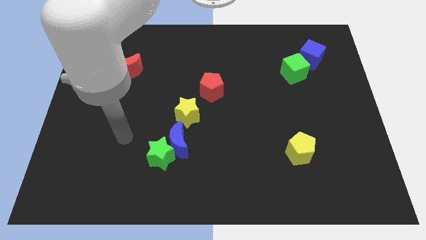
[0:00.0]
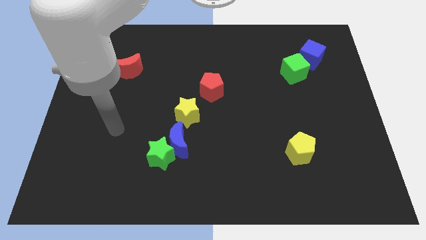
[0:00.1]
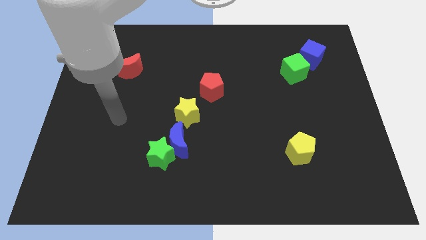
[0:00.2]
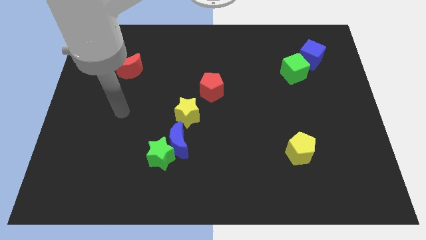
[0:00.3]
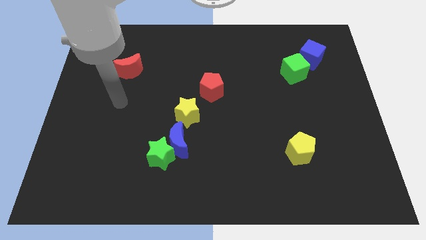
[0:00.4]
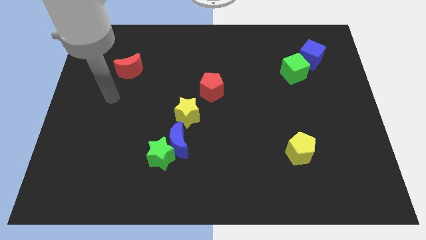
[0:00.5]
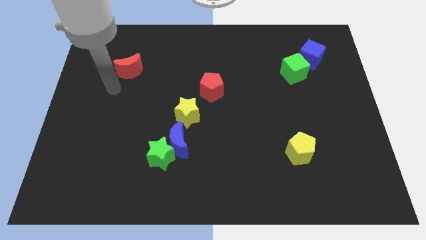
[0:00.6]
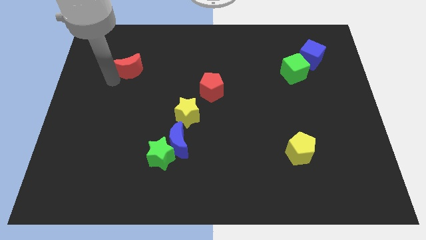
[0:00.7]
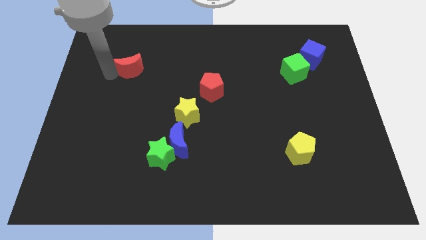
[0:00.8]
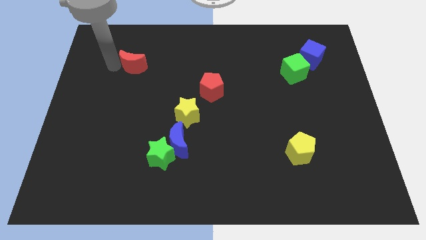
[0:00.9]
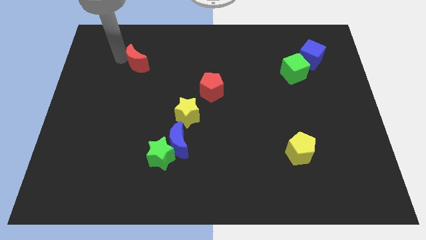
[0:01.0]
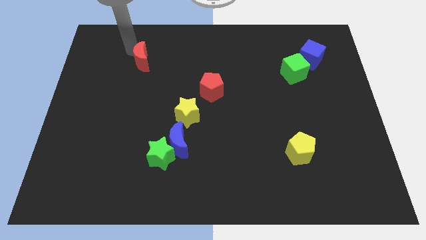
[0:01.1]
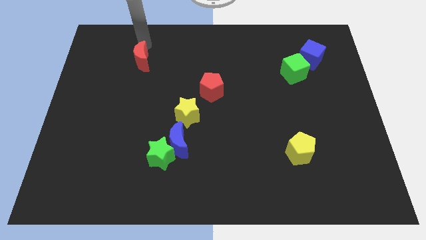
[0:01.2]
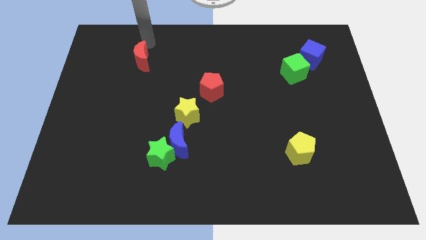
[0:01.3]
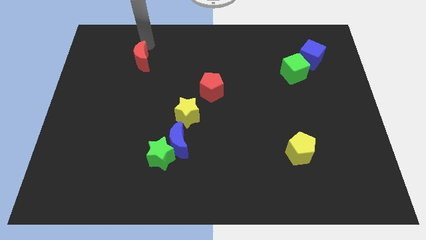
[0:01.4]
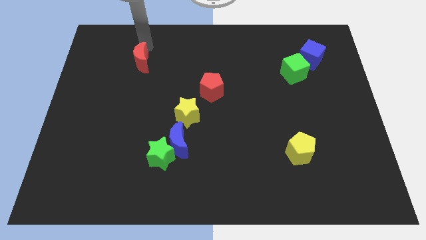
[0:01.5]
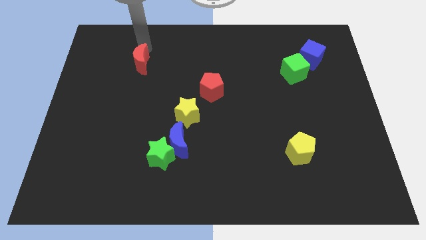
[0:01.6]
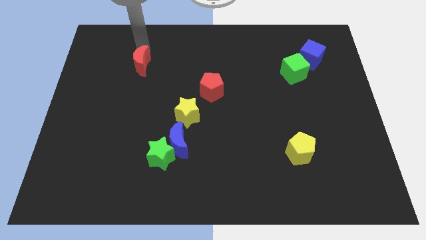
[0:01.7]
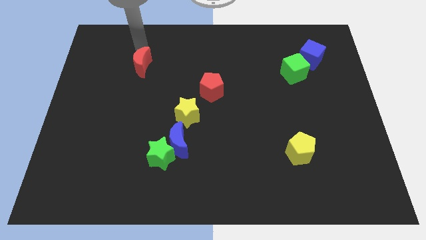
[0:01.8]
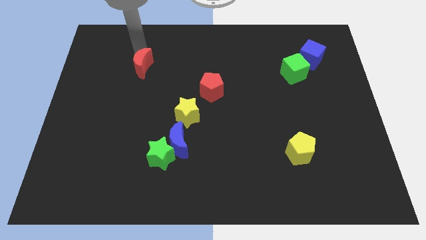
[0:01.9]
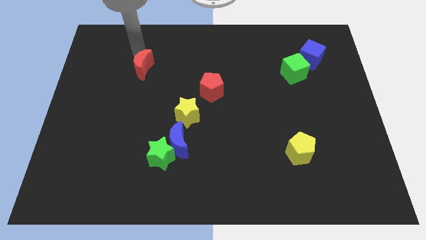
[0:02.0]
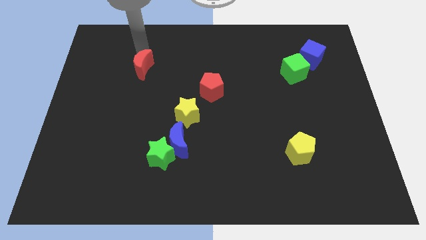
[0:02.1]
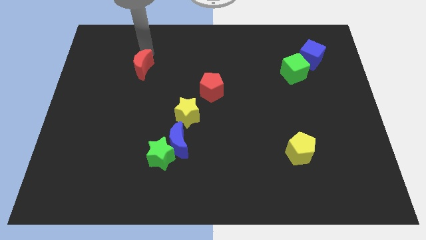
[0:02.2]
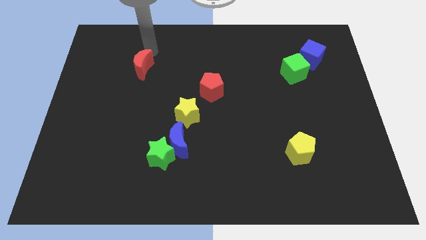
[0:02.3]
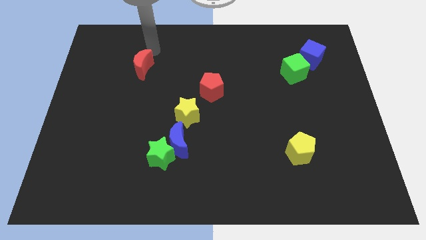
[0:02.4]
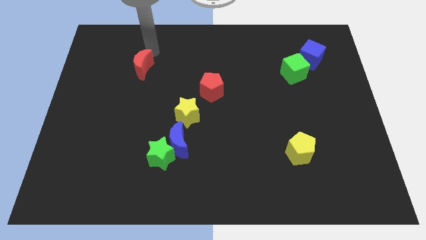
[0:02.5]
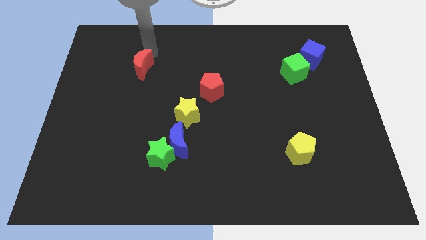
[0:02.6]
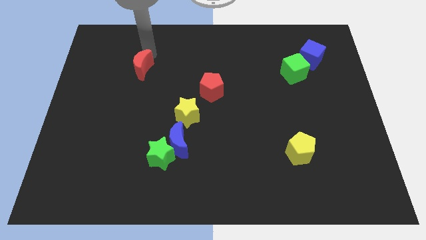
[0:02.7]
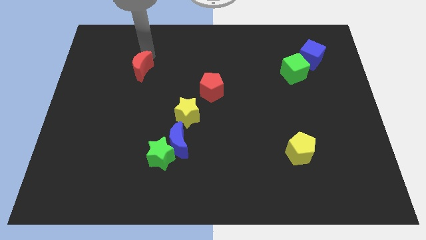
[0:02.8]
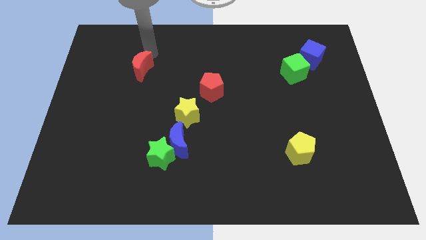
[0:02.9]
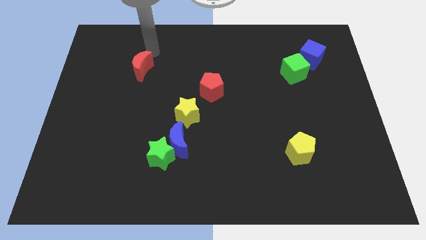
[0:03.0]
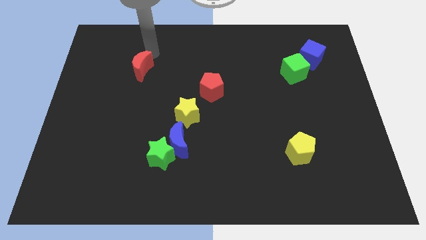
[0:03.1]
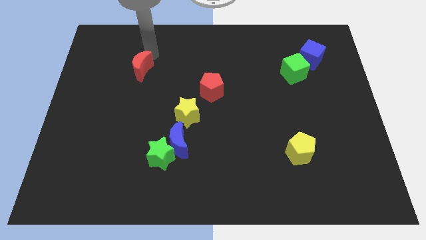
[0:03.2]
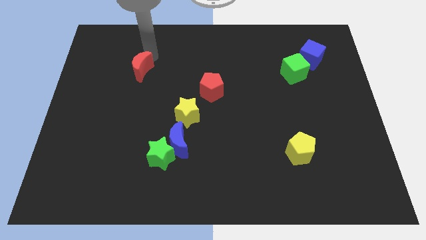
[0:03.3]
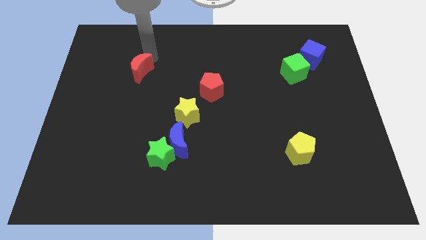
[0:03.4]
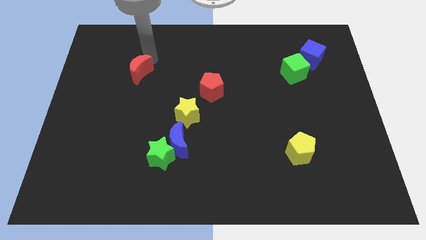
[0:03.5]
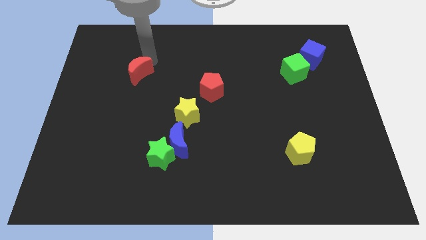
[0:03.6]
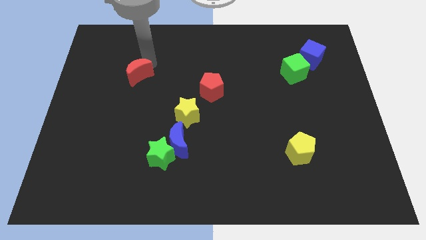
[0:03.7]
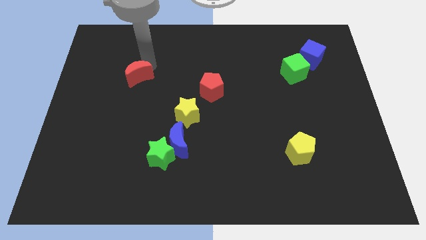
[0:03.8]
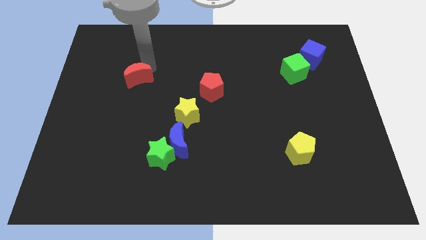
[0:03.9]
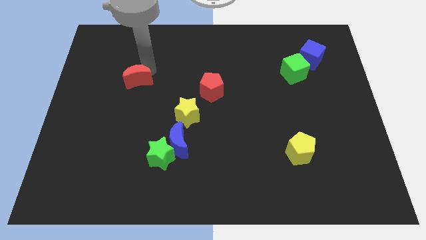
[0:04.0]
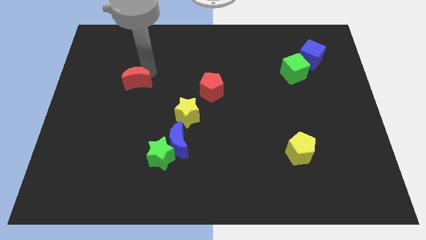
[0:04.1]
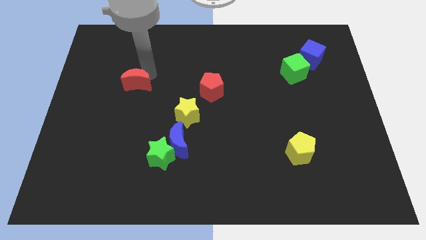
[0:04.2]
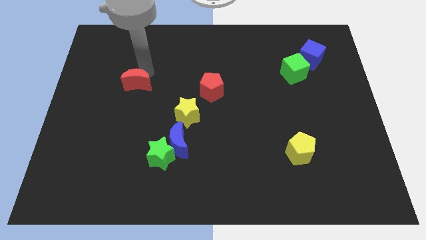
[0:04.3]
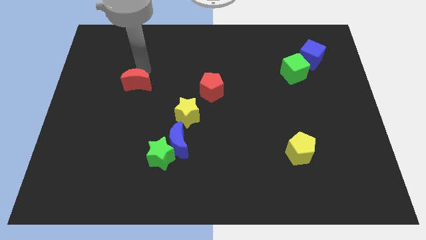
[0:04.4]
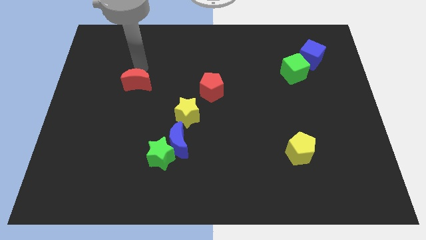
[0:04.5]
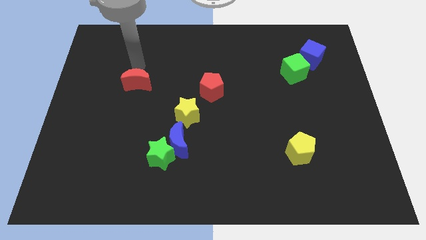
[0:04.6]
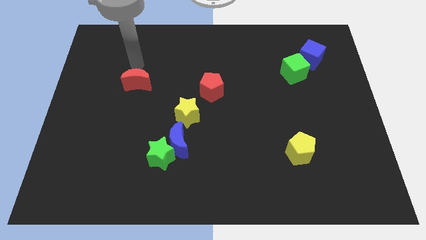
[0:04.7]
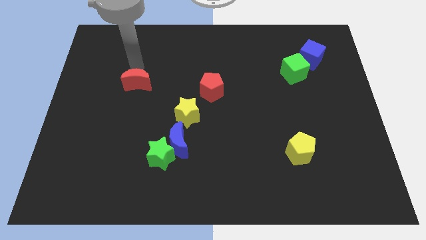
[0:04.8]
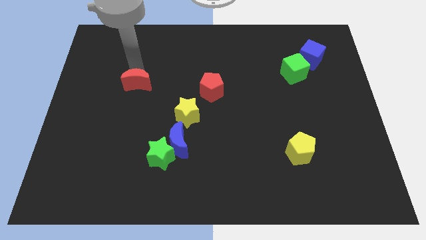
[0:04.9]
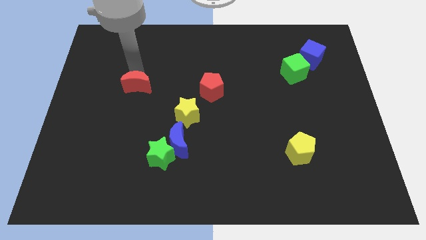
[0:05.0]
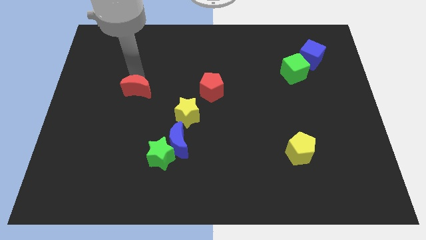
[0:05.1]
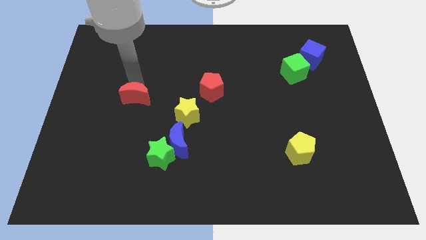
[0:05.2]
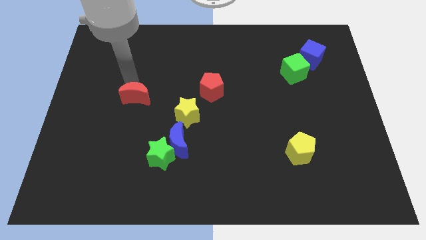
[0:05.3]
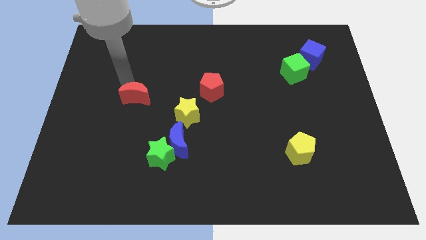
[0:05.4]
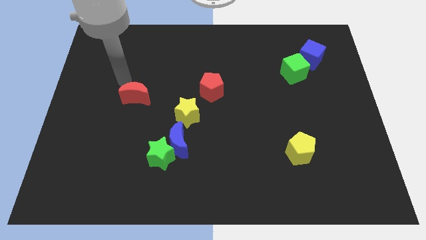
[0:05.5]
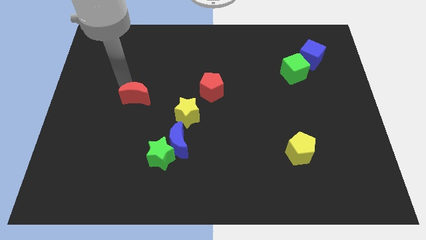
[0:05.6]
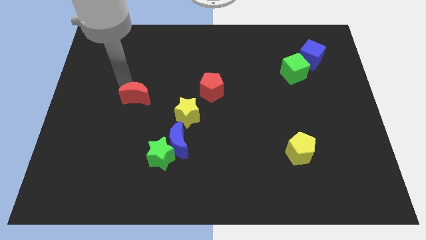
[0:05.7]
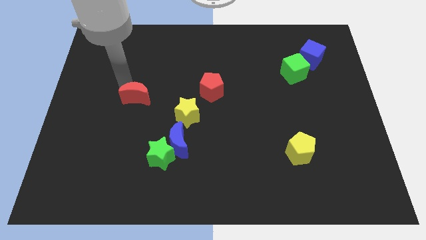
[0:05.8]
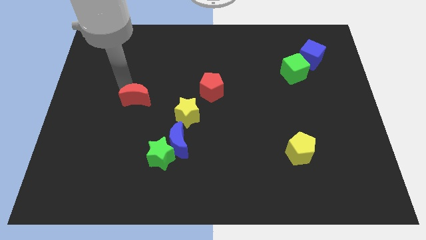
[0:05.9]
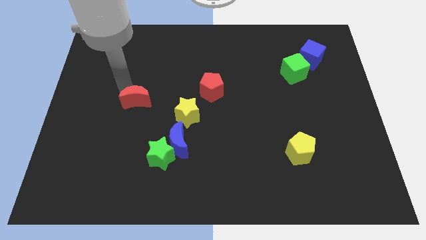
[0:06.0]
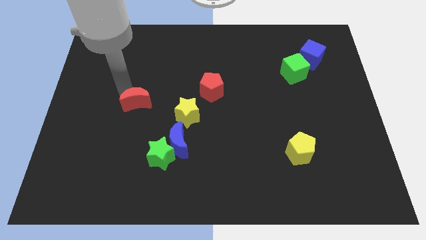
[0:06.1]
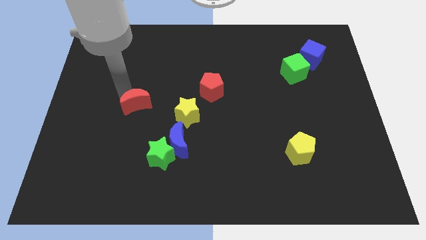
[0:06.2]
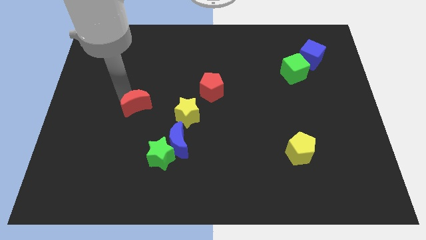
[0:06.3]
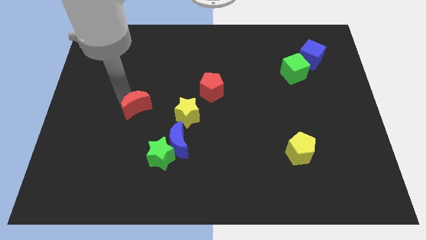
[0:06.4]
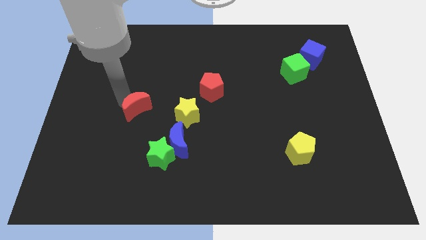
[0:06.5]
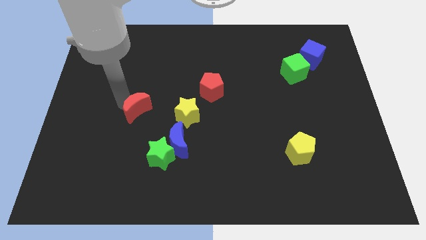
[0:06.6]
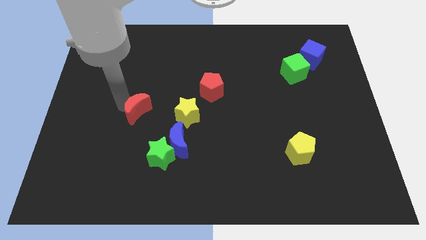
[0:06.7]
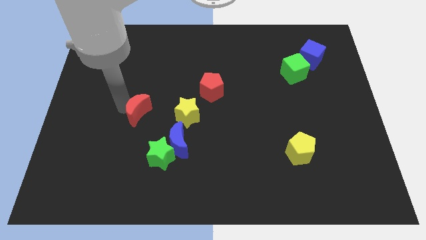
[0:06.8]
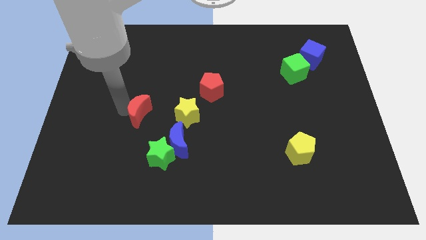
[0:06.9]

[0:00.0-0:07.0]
move the red moon to the top left of the blue moon
